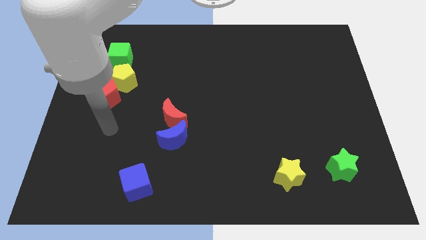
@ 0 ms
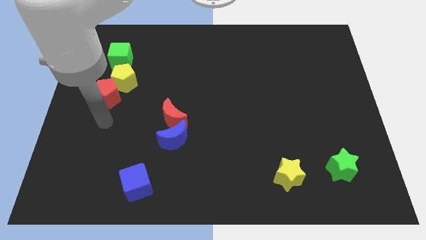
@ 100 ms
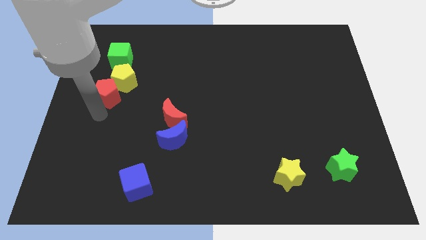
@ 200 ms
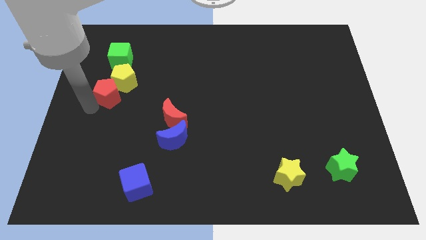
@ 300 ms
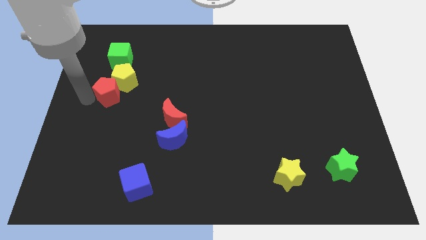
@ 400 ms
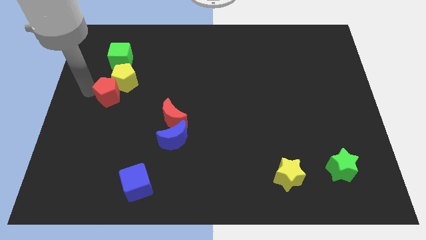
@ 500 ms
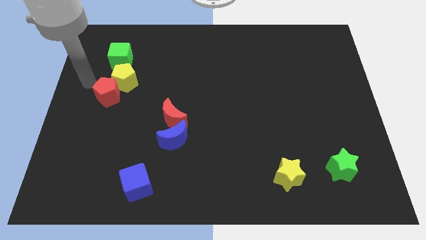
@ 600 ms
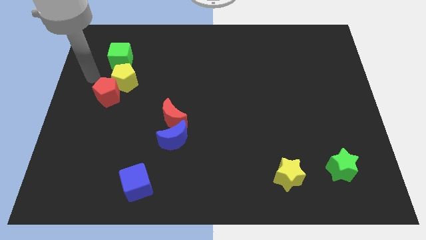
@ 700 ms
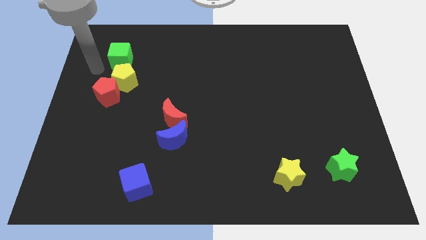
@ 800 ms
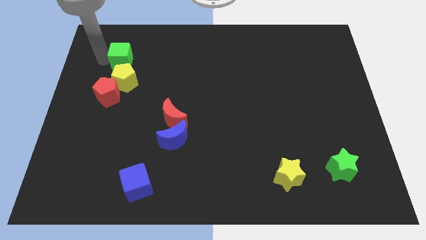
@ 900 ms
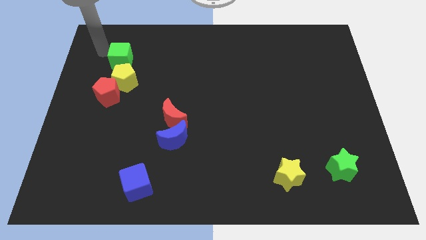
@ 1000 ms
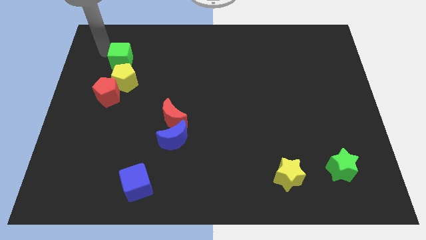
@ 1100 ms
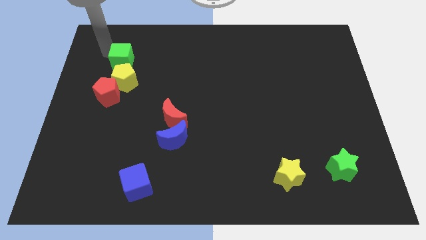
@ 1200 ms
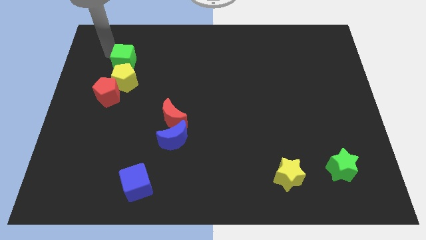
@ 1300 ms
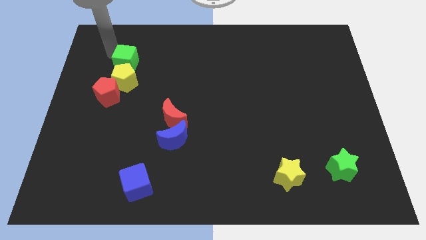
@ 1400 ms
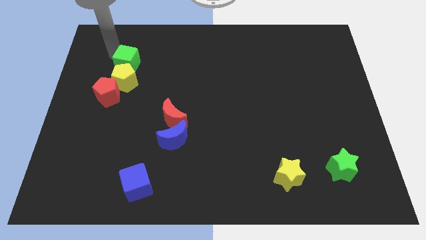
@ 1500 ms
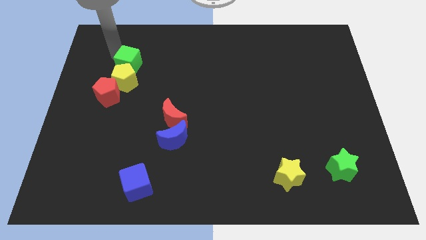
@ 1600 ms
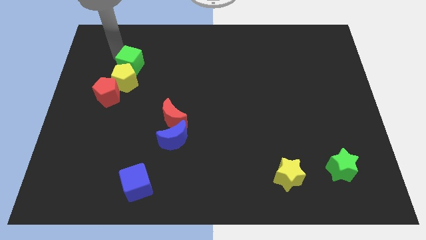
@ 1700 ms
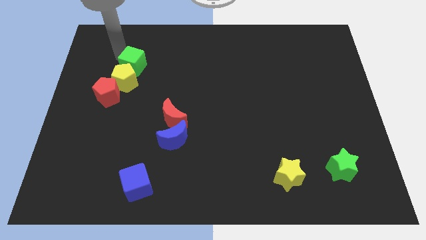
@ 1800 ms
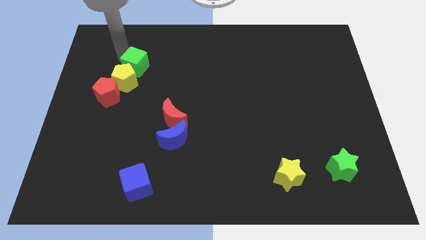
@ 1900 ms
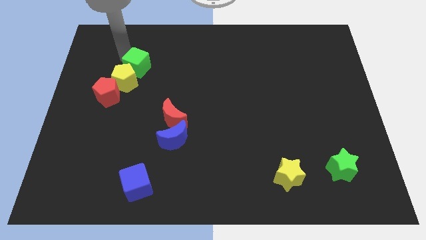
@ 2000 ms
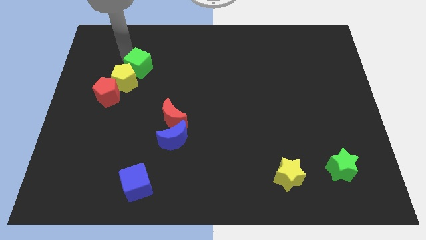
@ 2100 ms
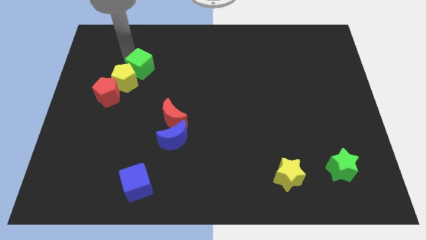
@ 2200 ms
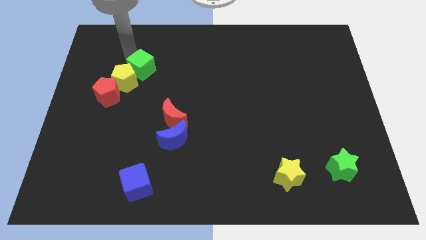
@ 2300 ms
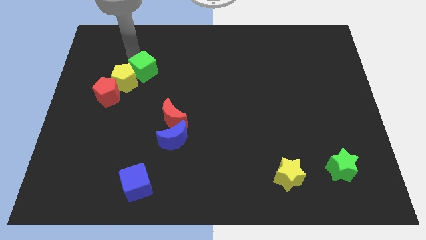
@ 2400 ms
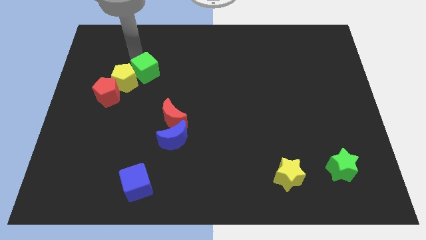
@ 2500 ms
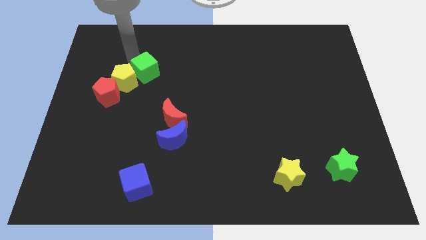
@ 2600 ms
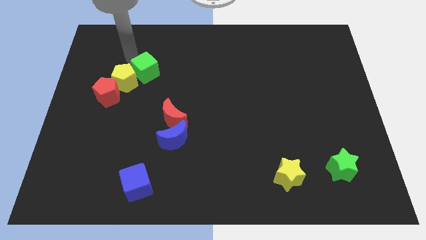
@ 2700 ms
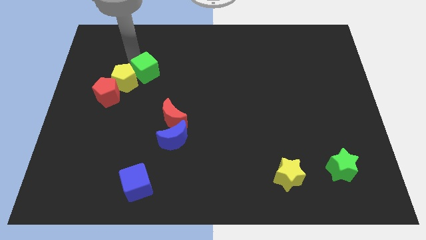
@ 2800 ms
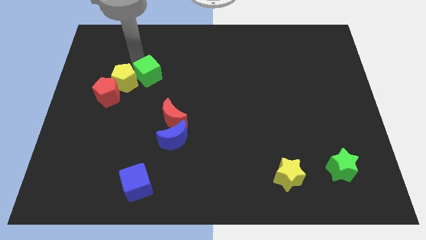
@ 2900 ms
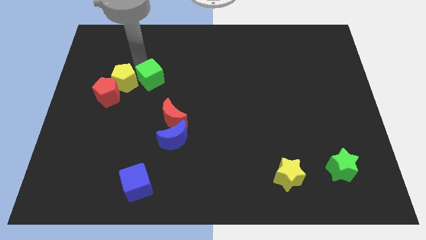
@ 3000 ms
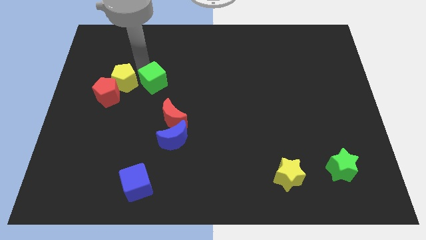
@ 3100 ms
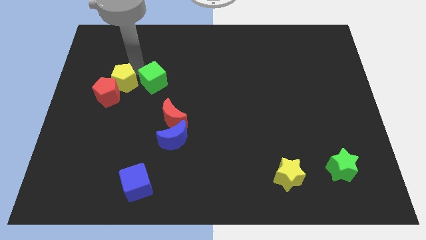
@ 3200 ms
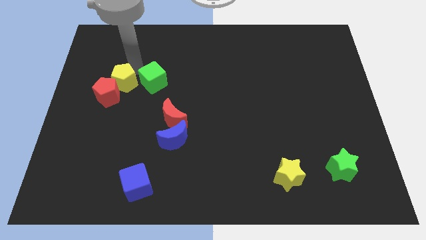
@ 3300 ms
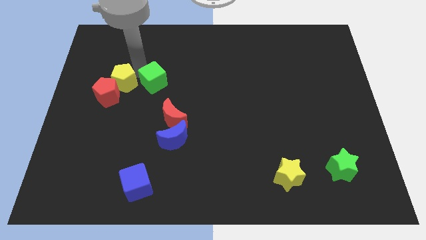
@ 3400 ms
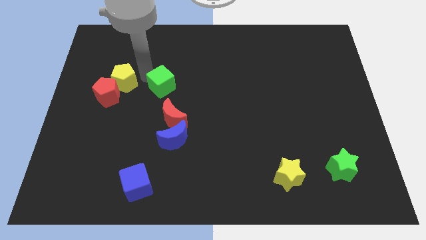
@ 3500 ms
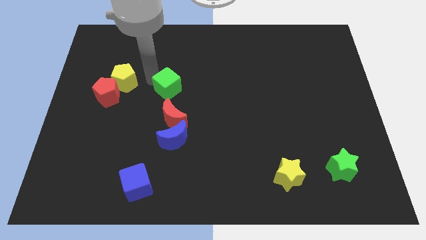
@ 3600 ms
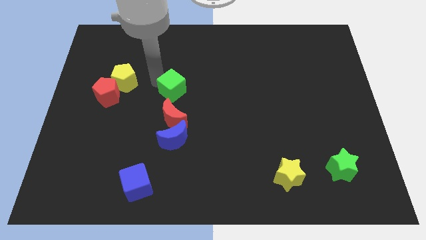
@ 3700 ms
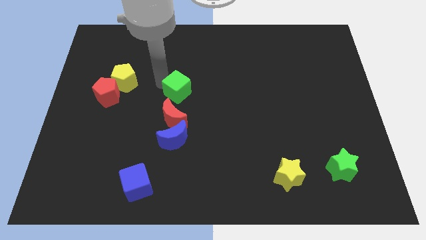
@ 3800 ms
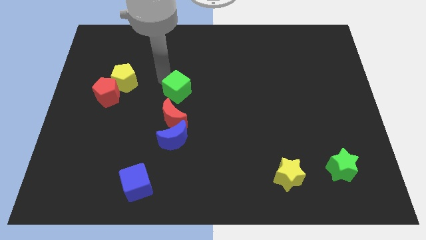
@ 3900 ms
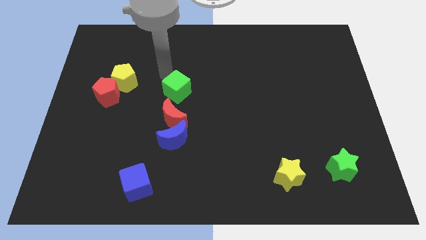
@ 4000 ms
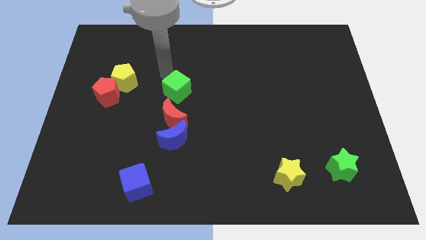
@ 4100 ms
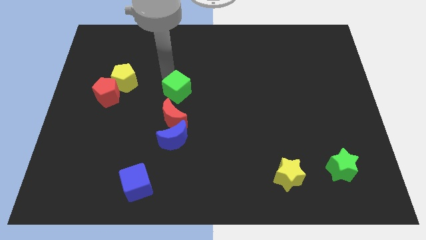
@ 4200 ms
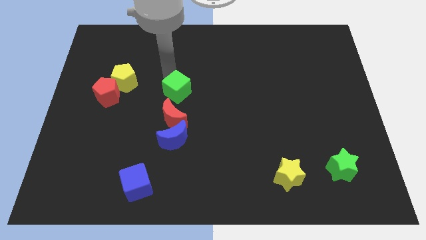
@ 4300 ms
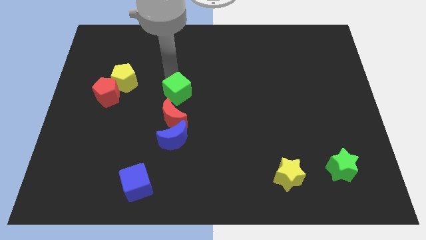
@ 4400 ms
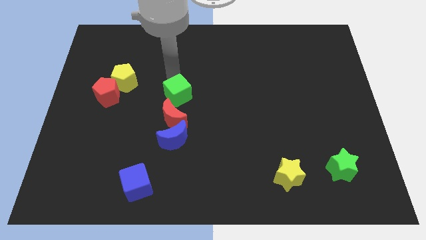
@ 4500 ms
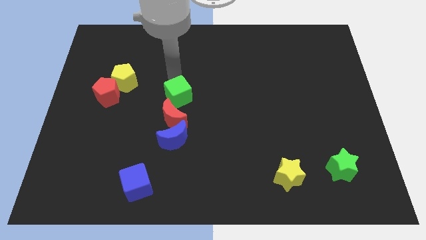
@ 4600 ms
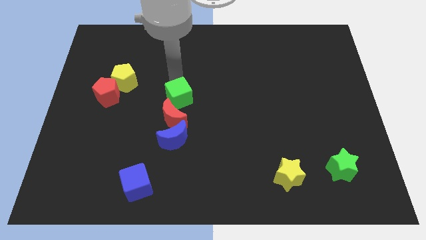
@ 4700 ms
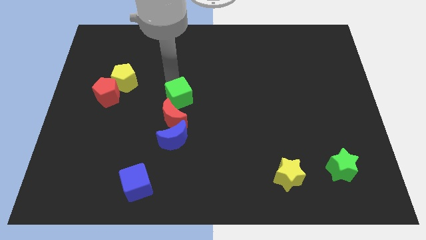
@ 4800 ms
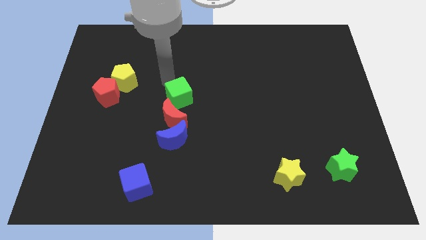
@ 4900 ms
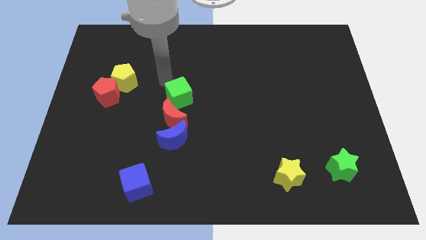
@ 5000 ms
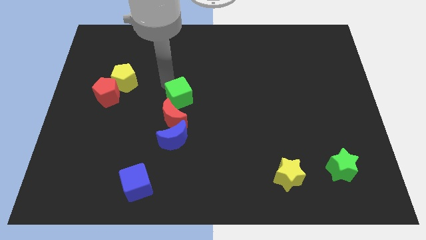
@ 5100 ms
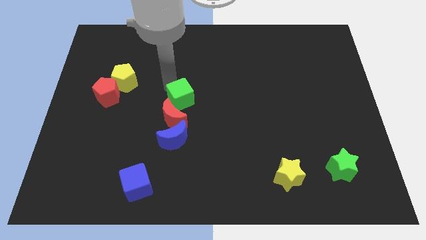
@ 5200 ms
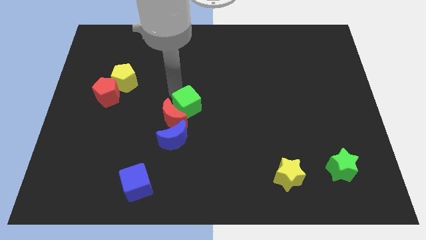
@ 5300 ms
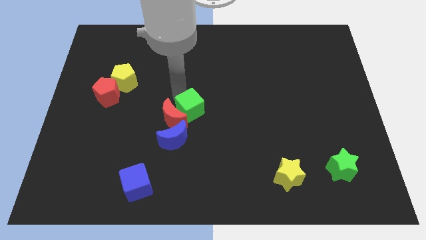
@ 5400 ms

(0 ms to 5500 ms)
slide the green cube diagonally up and to the right of the blue moon

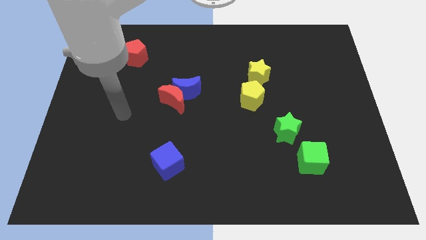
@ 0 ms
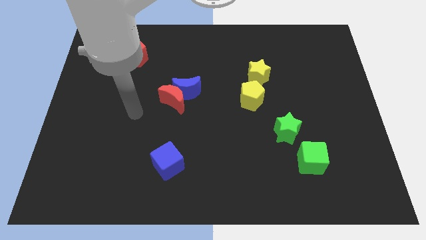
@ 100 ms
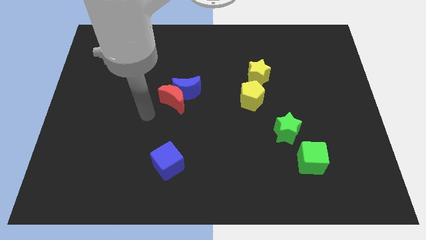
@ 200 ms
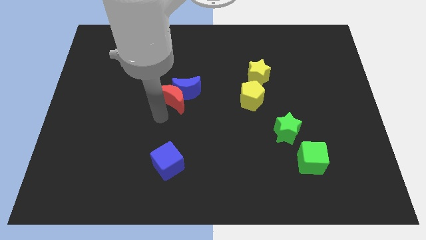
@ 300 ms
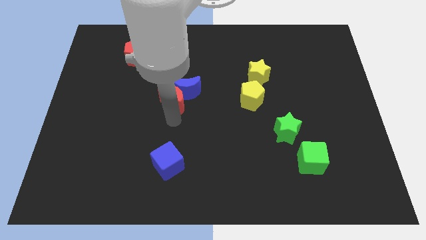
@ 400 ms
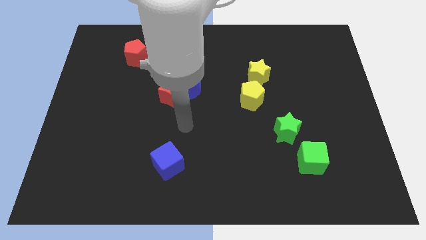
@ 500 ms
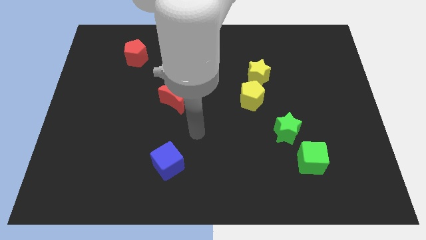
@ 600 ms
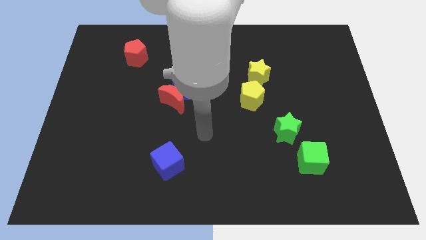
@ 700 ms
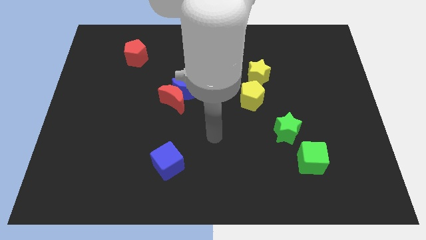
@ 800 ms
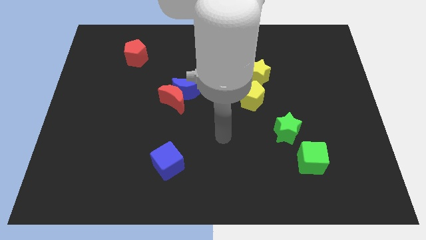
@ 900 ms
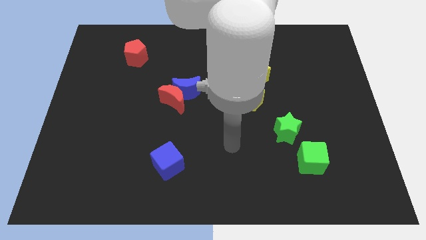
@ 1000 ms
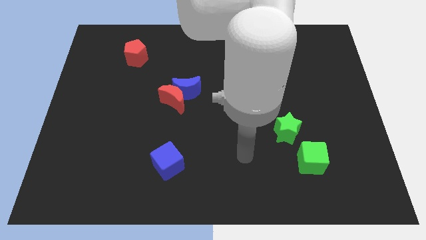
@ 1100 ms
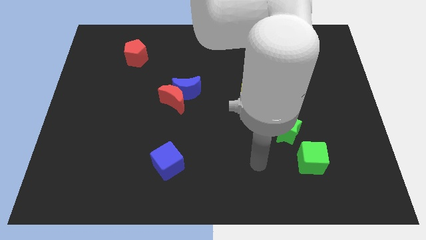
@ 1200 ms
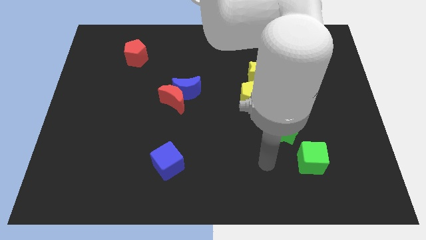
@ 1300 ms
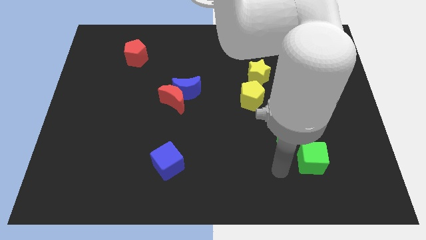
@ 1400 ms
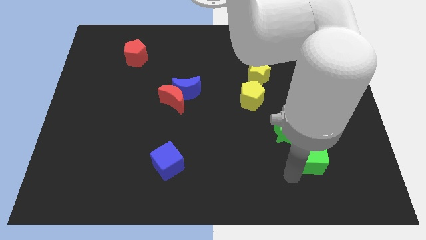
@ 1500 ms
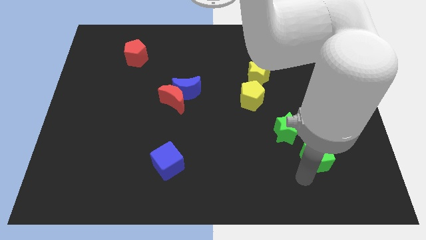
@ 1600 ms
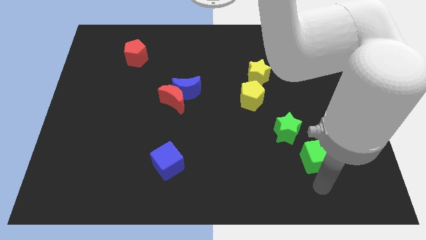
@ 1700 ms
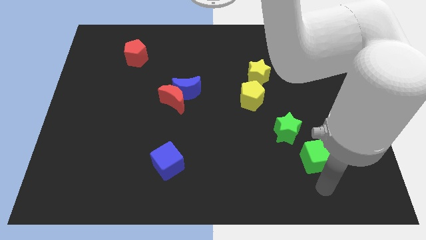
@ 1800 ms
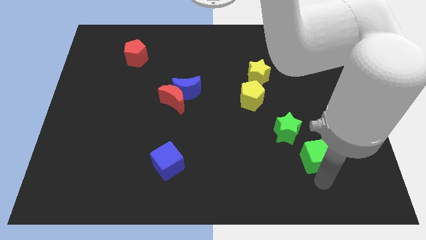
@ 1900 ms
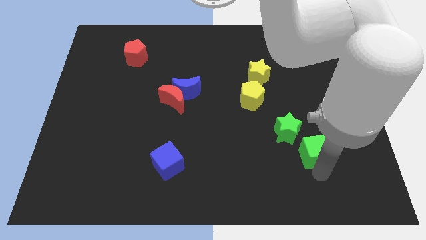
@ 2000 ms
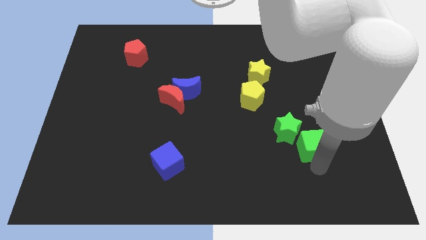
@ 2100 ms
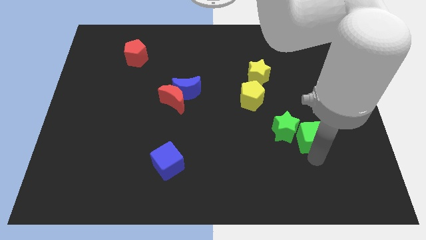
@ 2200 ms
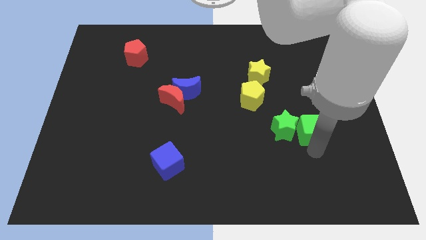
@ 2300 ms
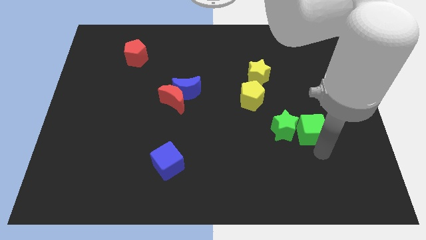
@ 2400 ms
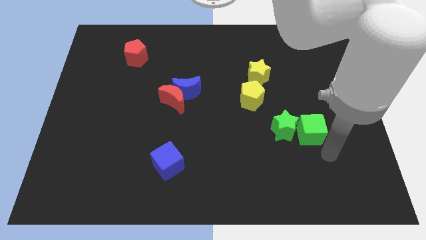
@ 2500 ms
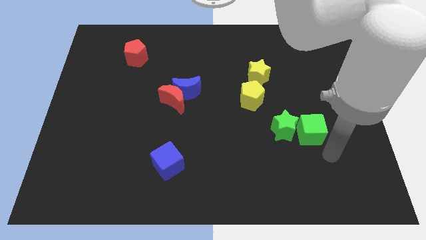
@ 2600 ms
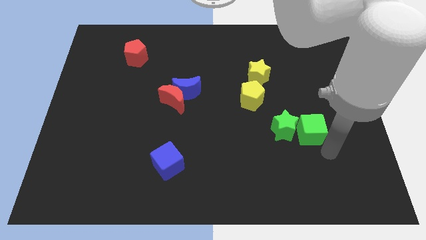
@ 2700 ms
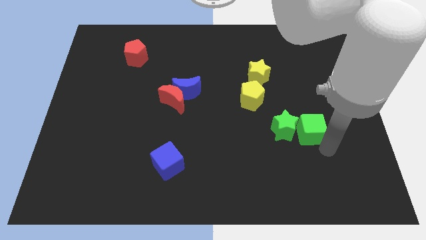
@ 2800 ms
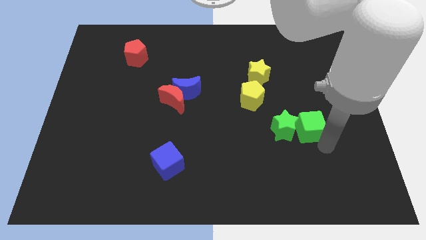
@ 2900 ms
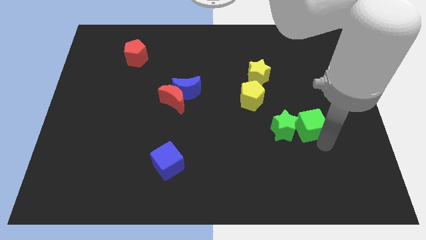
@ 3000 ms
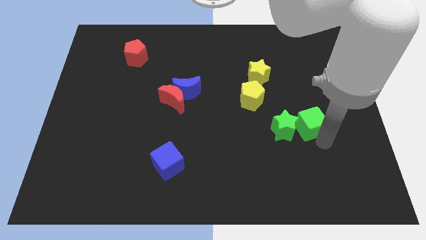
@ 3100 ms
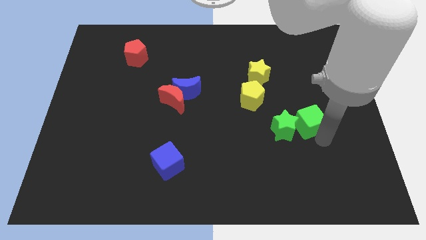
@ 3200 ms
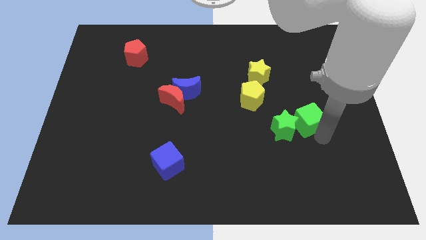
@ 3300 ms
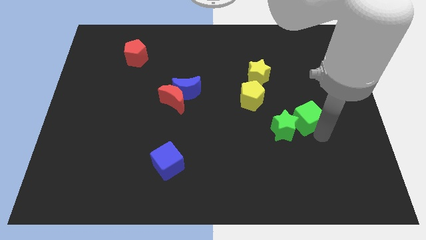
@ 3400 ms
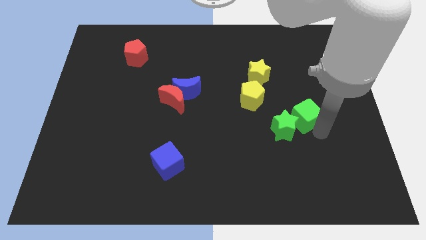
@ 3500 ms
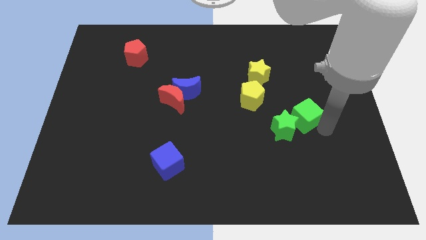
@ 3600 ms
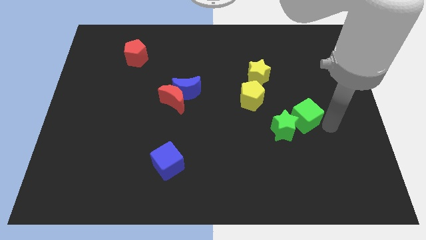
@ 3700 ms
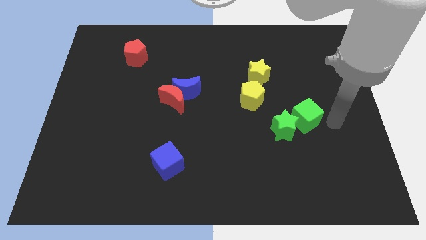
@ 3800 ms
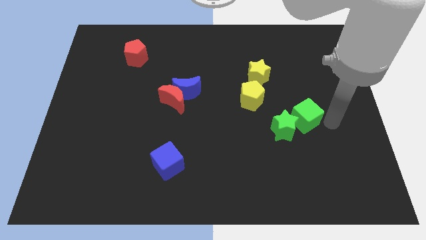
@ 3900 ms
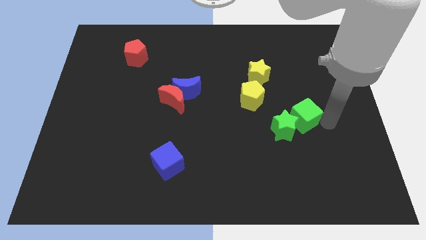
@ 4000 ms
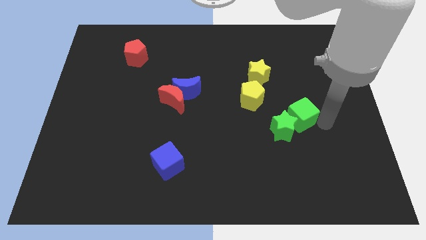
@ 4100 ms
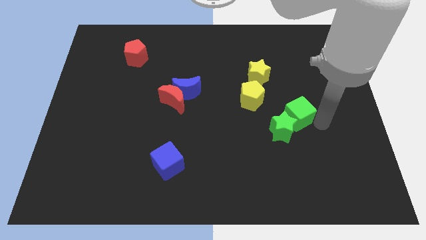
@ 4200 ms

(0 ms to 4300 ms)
put the green cube to the bottom right side of the yellow pentagon
